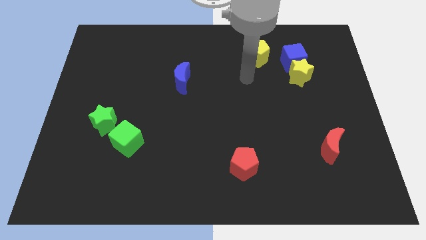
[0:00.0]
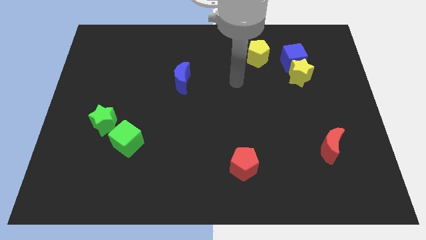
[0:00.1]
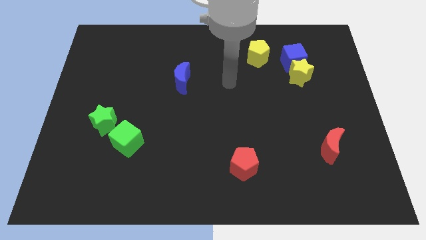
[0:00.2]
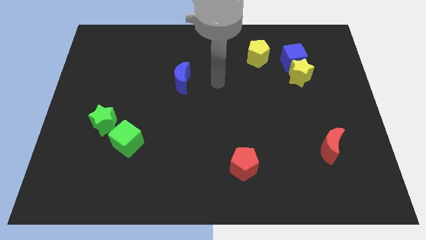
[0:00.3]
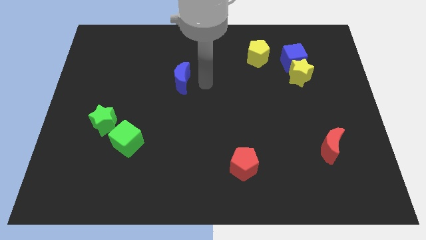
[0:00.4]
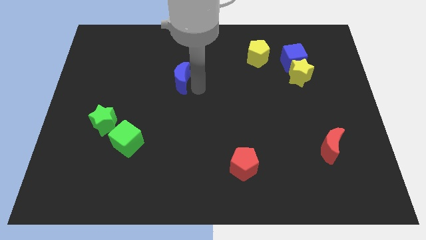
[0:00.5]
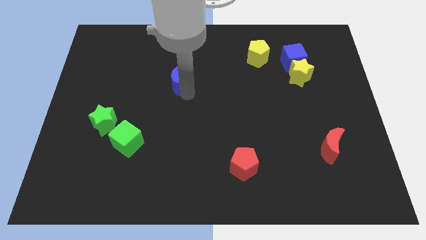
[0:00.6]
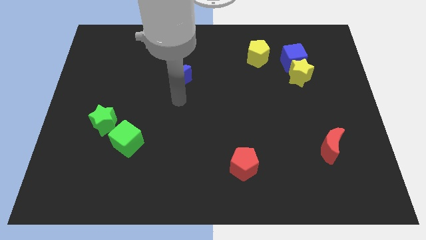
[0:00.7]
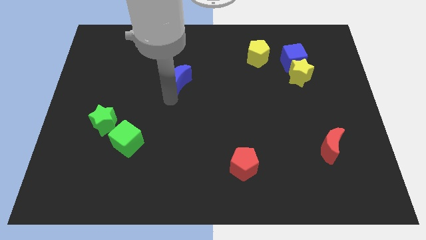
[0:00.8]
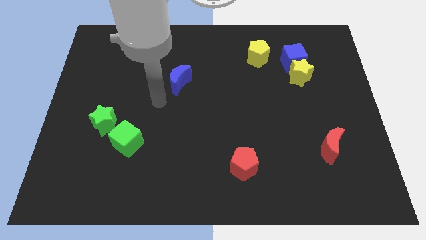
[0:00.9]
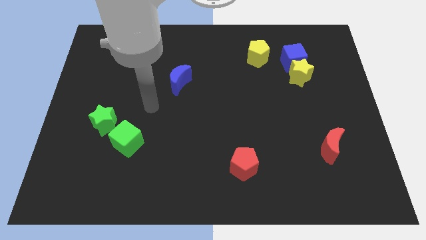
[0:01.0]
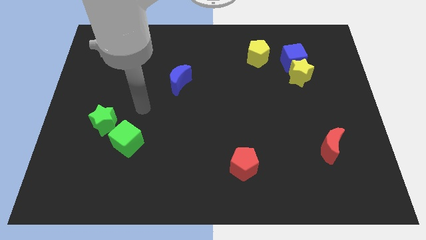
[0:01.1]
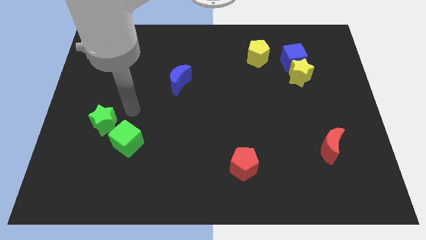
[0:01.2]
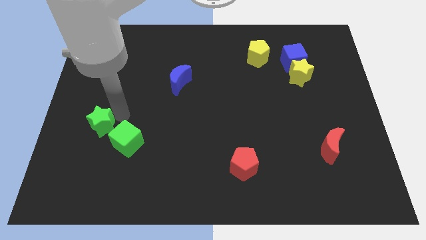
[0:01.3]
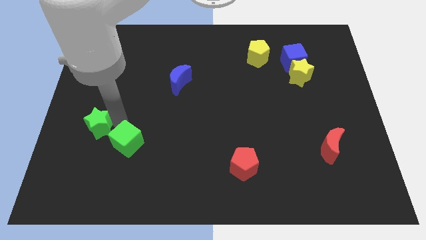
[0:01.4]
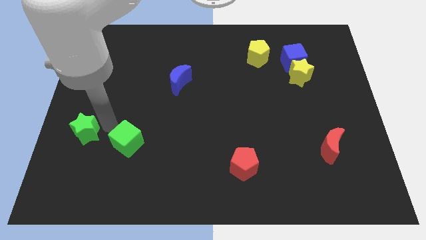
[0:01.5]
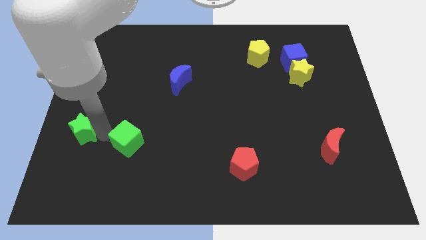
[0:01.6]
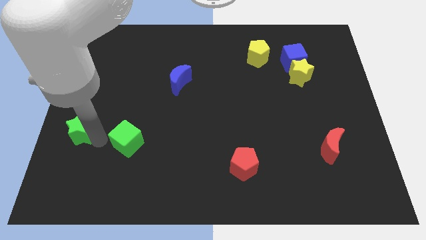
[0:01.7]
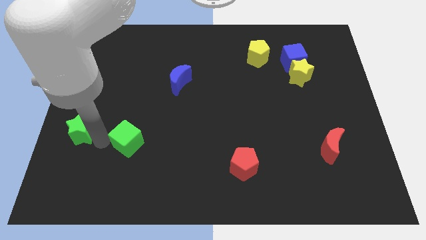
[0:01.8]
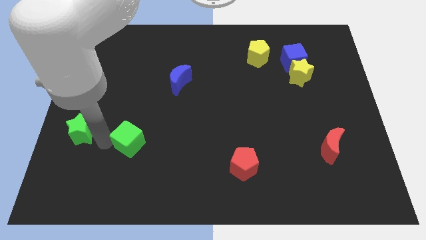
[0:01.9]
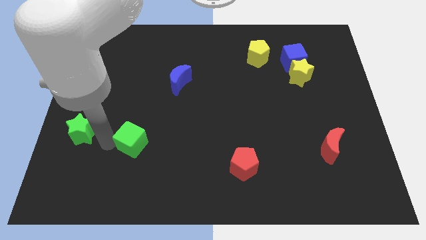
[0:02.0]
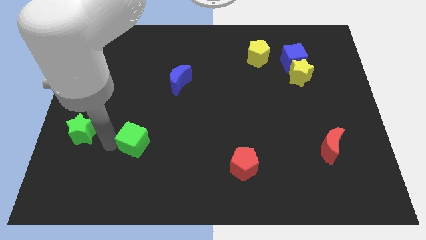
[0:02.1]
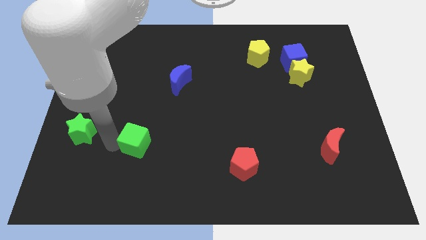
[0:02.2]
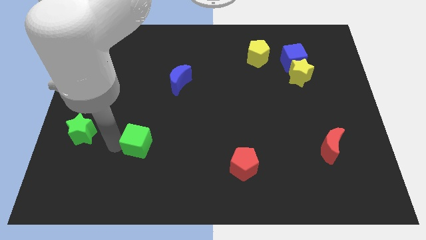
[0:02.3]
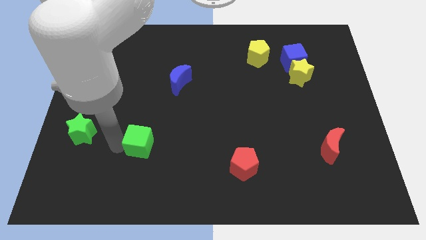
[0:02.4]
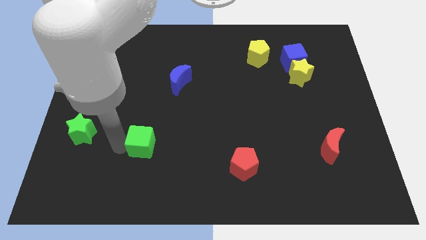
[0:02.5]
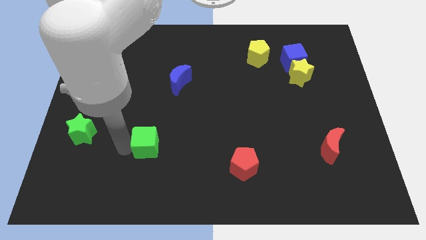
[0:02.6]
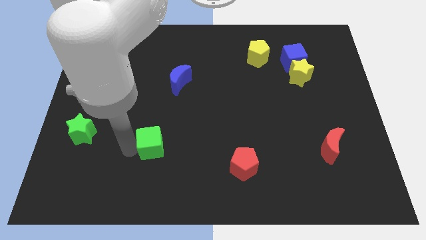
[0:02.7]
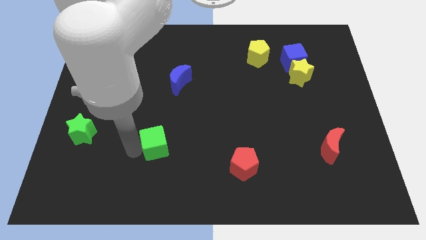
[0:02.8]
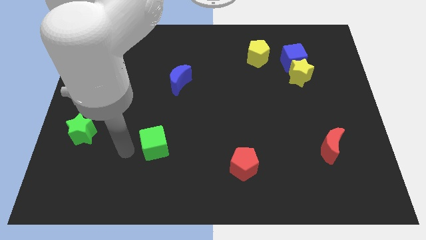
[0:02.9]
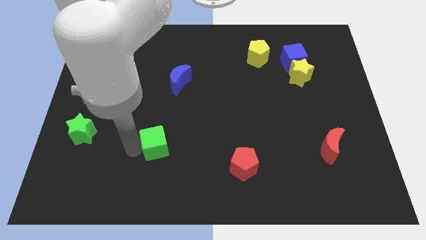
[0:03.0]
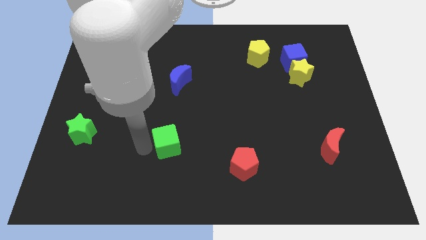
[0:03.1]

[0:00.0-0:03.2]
move the green cube right a little bit

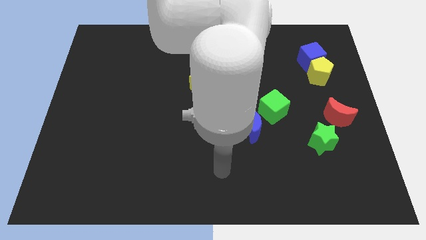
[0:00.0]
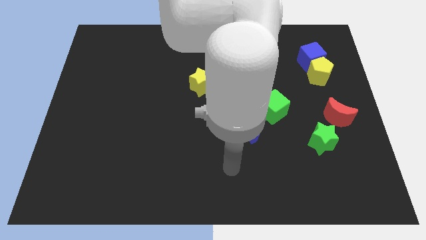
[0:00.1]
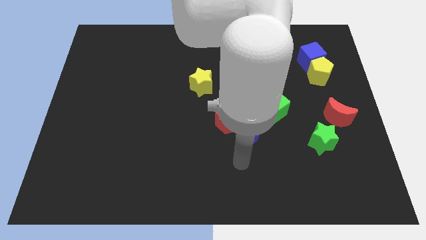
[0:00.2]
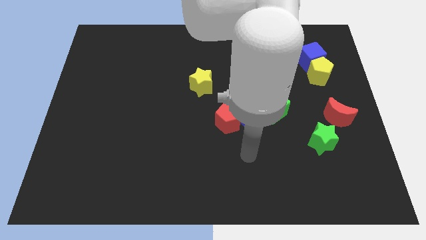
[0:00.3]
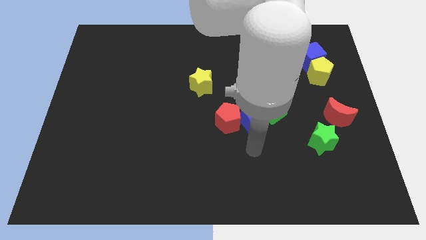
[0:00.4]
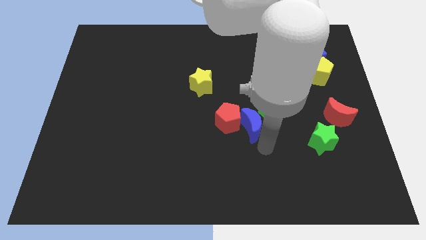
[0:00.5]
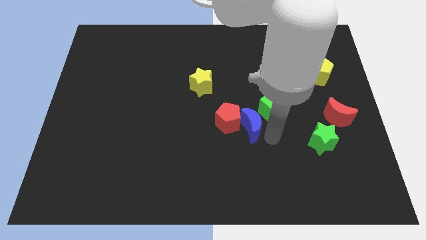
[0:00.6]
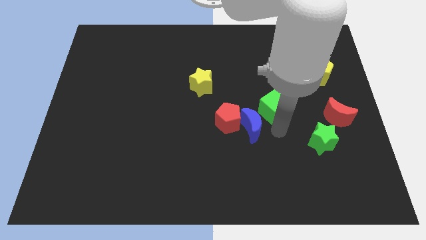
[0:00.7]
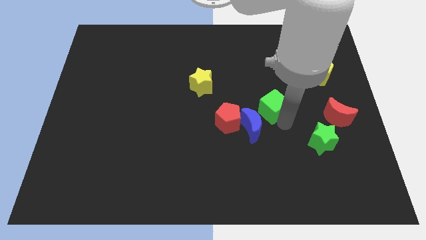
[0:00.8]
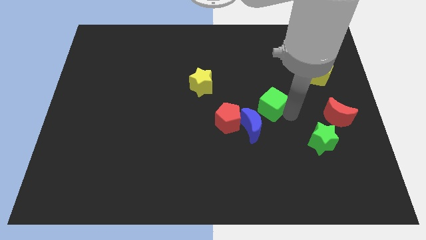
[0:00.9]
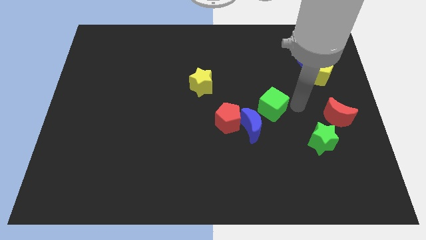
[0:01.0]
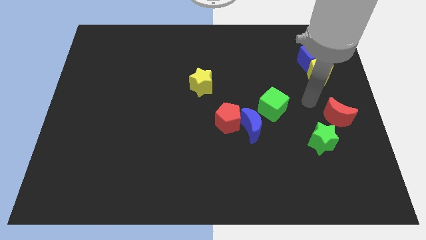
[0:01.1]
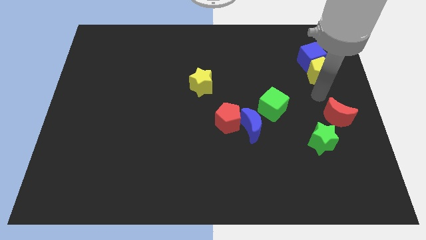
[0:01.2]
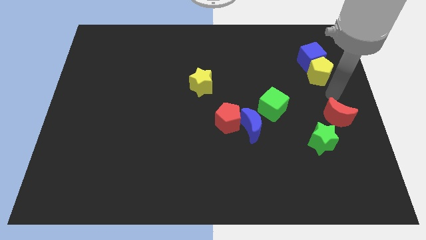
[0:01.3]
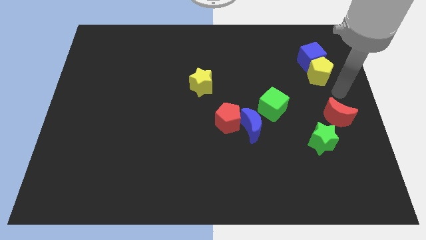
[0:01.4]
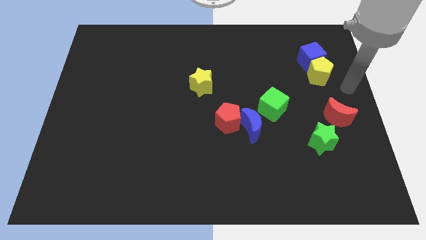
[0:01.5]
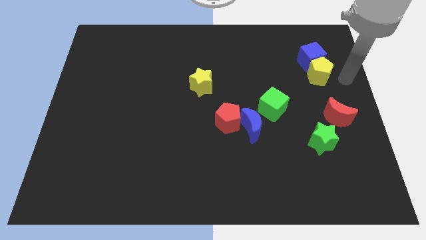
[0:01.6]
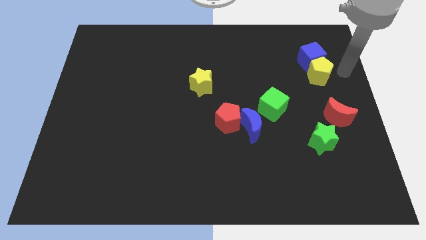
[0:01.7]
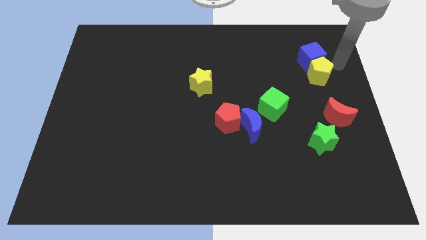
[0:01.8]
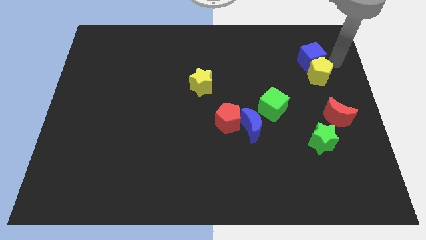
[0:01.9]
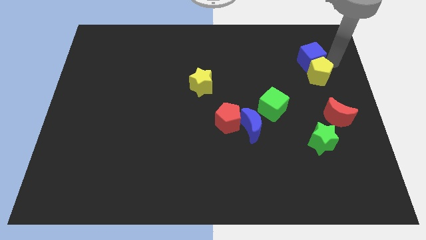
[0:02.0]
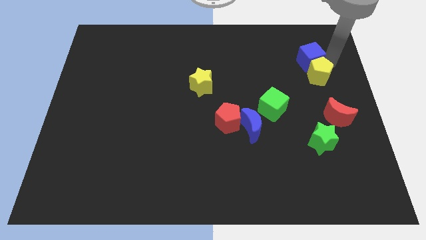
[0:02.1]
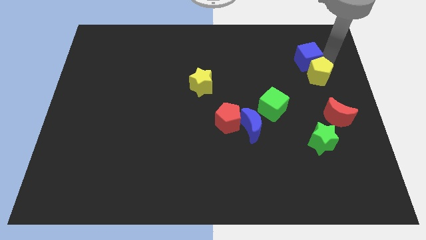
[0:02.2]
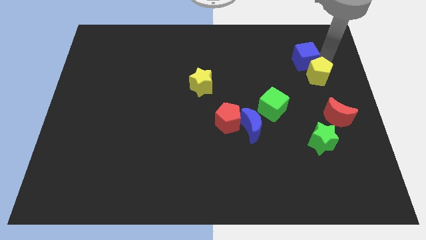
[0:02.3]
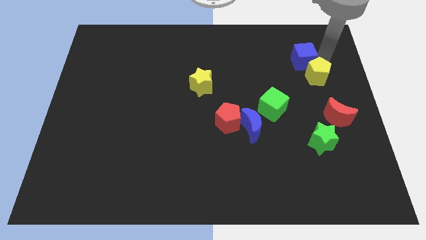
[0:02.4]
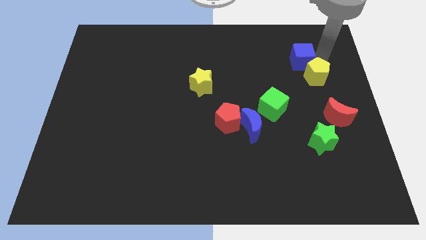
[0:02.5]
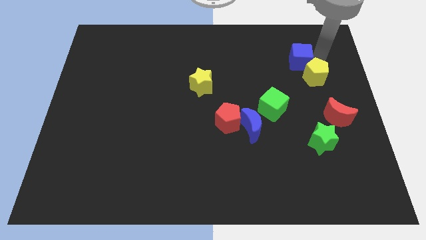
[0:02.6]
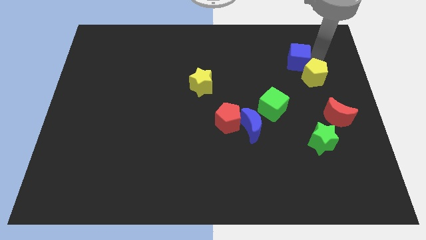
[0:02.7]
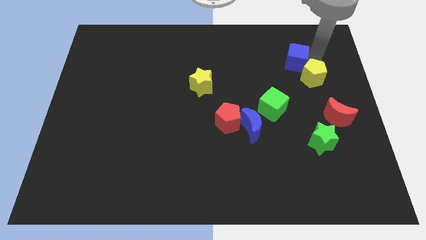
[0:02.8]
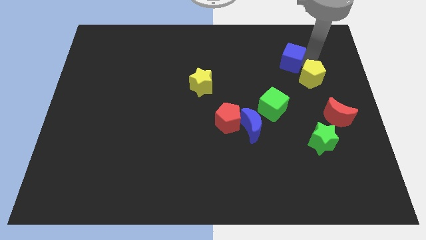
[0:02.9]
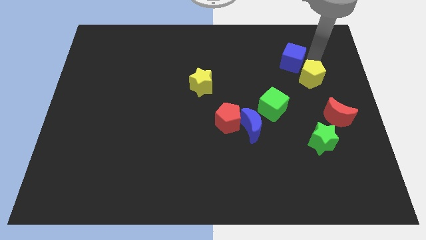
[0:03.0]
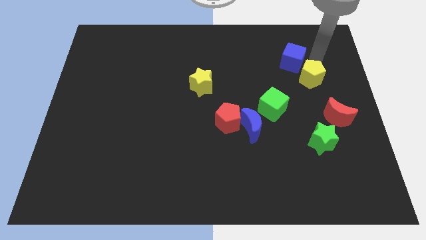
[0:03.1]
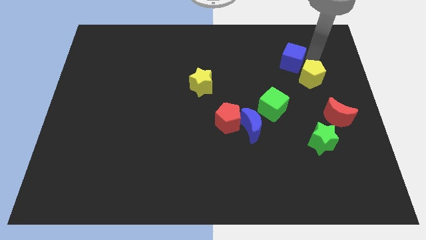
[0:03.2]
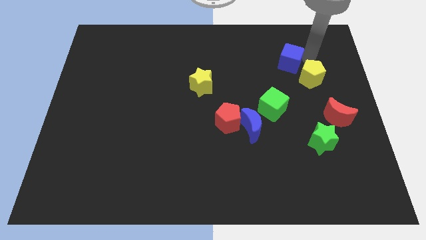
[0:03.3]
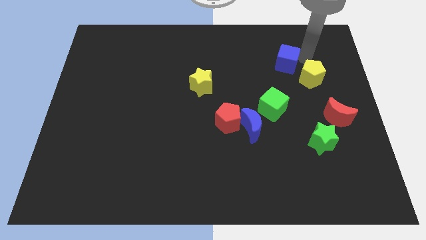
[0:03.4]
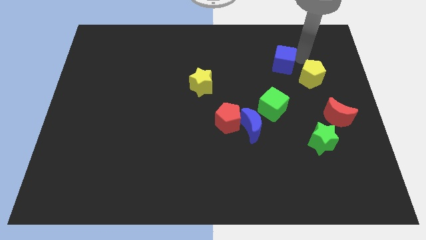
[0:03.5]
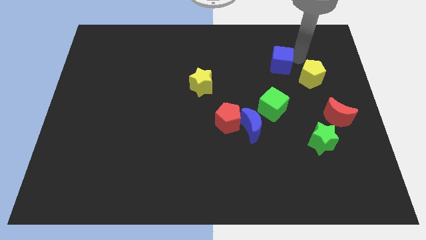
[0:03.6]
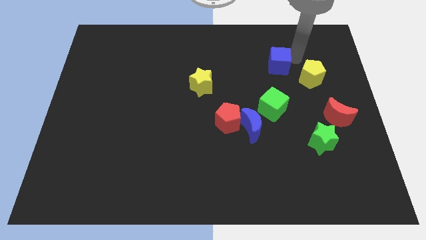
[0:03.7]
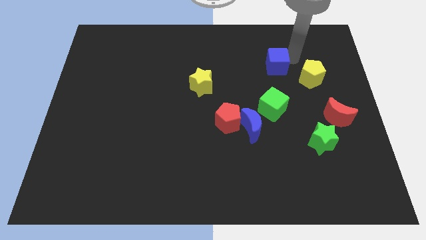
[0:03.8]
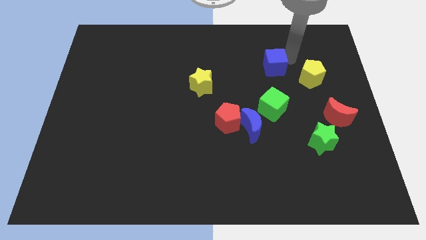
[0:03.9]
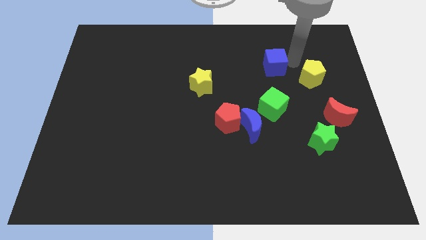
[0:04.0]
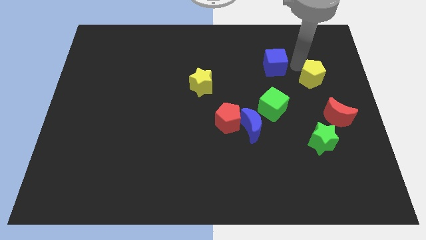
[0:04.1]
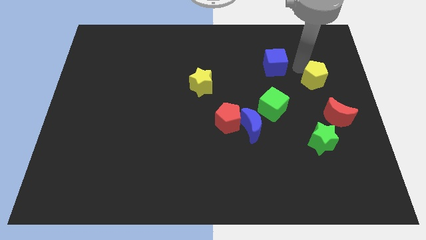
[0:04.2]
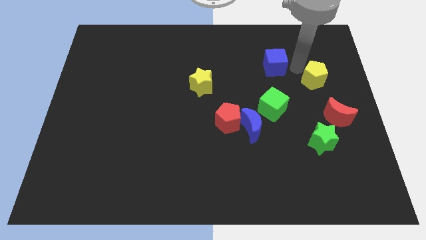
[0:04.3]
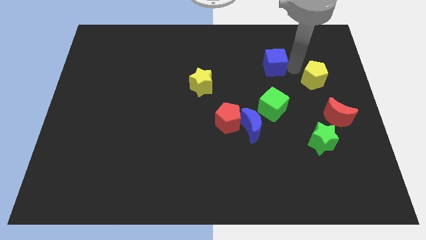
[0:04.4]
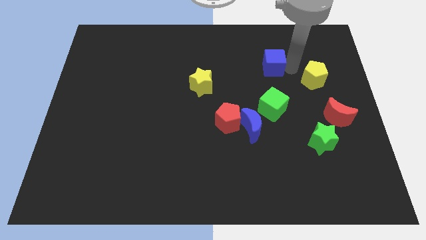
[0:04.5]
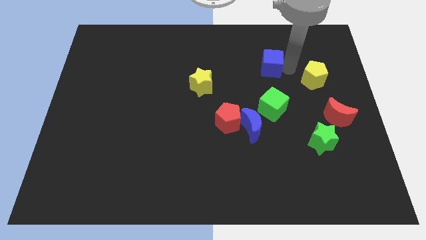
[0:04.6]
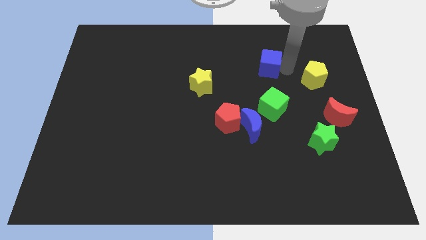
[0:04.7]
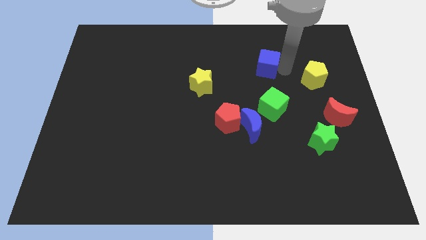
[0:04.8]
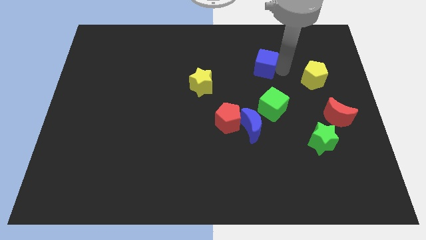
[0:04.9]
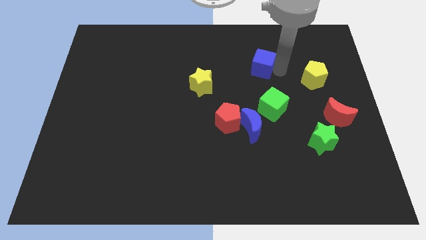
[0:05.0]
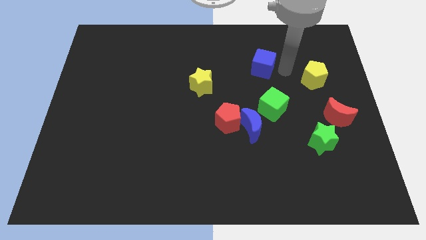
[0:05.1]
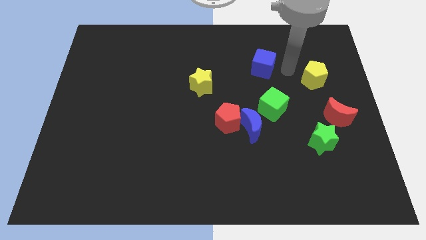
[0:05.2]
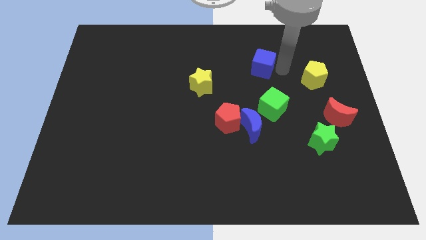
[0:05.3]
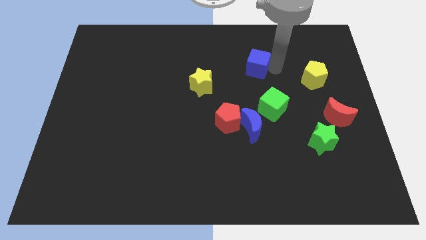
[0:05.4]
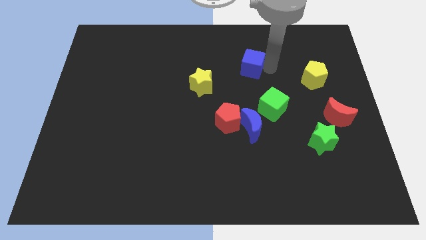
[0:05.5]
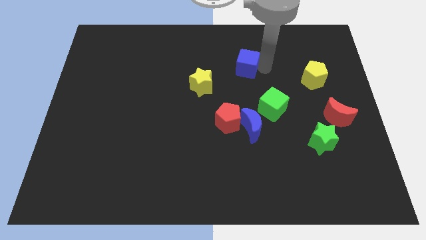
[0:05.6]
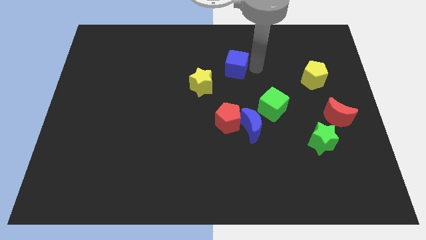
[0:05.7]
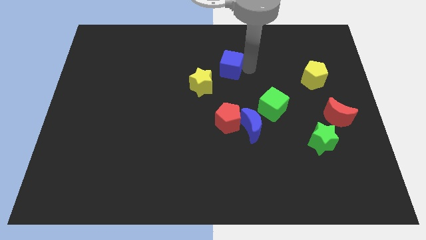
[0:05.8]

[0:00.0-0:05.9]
move the blue cube to the left
